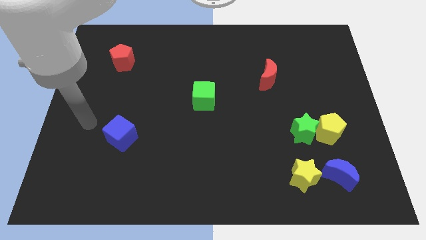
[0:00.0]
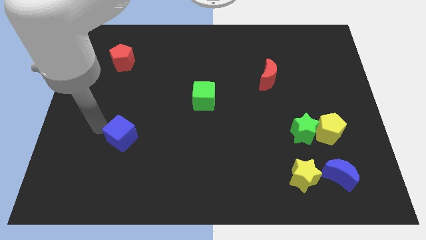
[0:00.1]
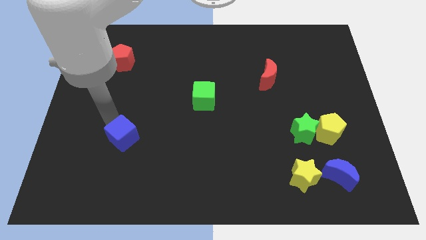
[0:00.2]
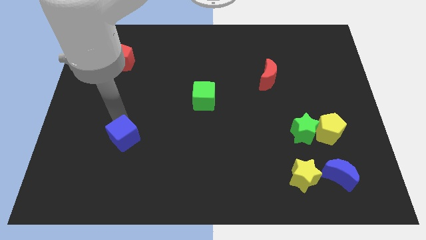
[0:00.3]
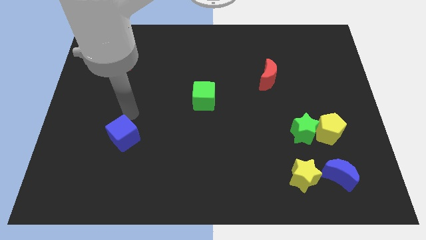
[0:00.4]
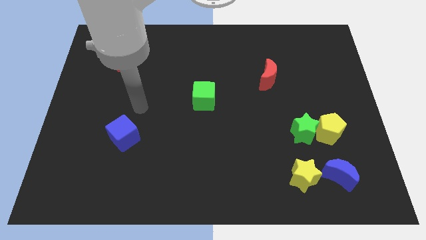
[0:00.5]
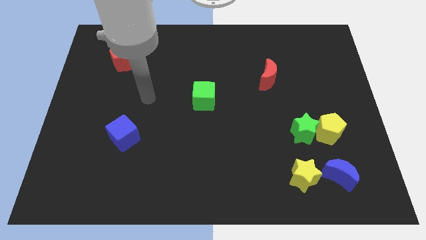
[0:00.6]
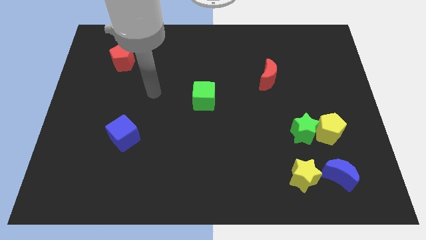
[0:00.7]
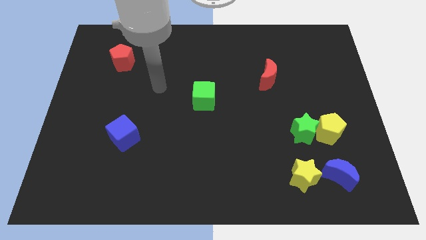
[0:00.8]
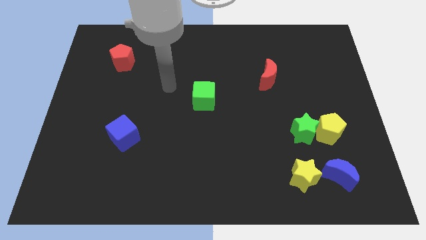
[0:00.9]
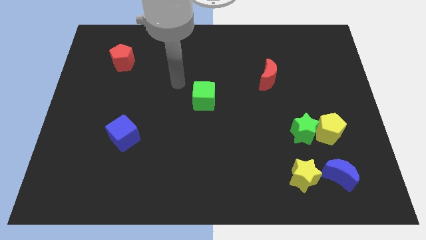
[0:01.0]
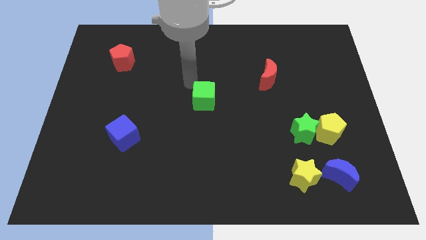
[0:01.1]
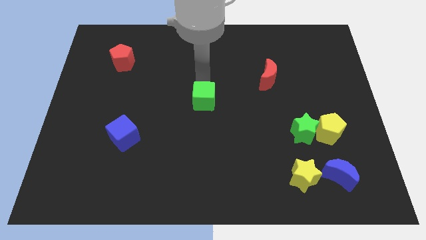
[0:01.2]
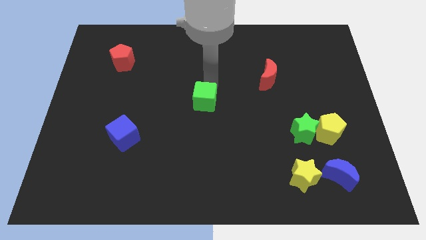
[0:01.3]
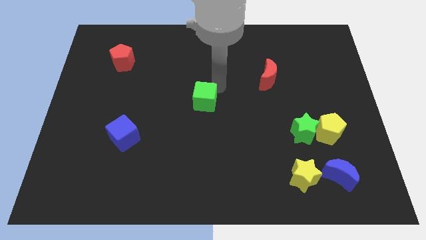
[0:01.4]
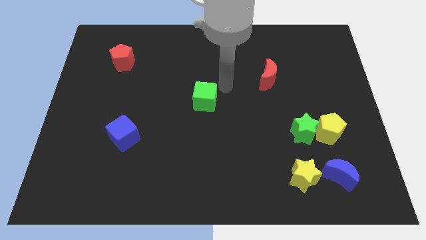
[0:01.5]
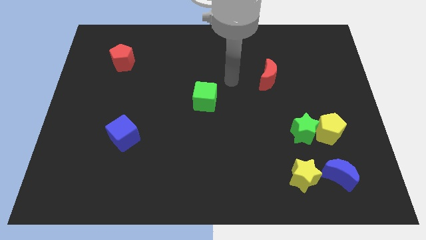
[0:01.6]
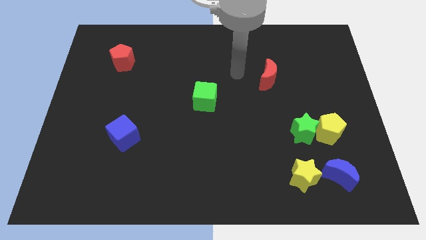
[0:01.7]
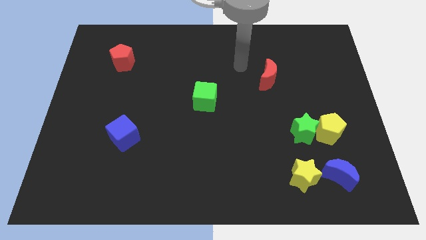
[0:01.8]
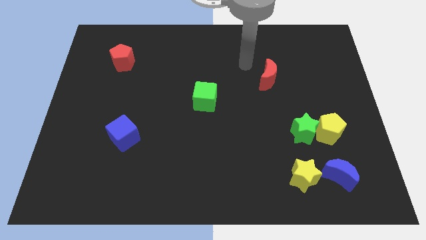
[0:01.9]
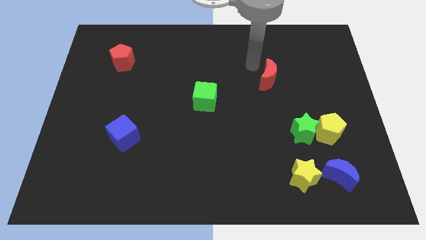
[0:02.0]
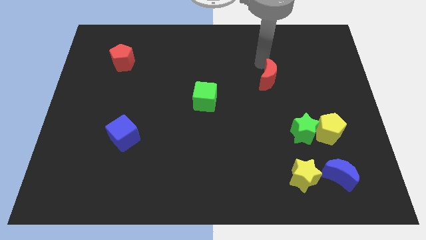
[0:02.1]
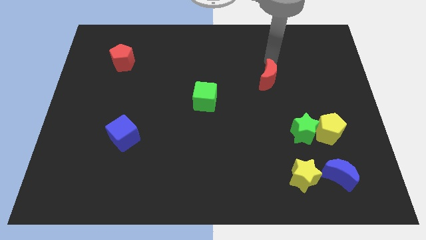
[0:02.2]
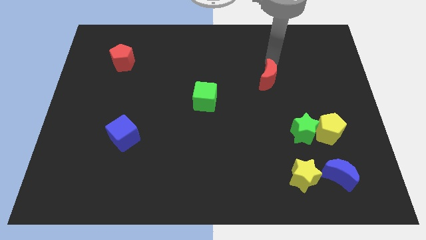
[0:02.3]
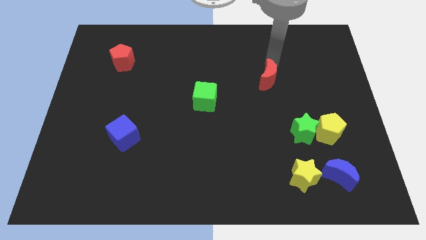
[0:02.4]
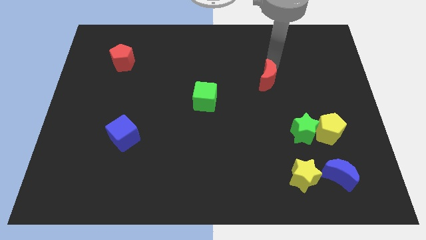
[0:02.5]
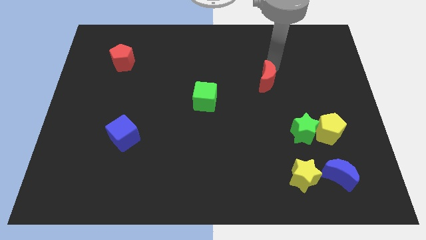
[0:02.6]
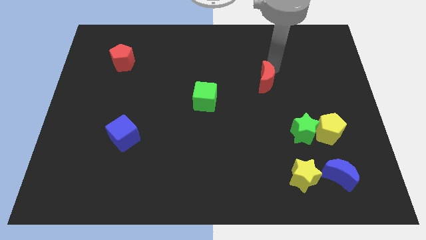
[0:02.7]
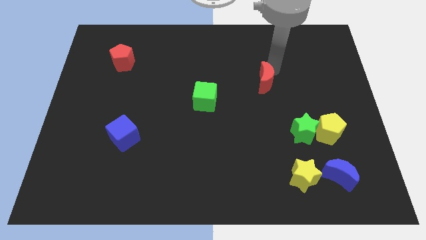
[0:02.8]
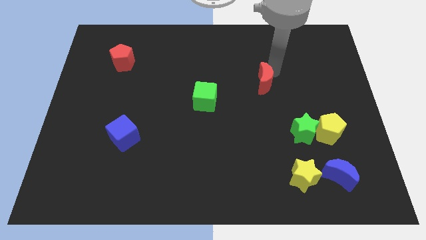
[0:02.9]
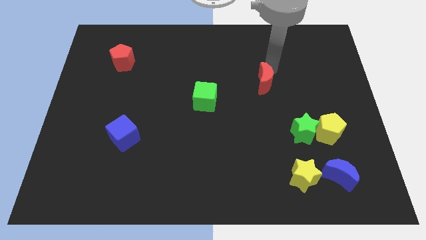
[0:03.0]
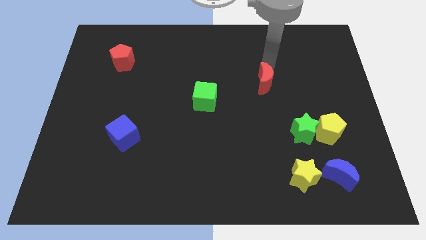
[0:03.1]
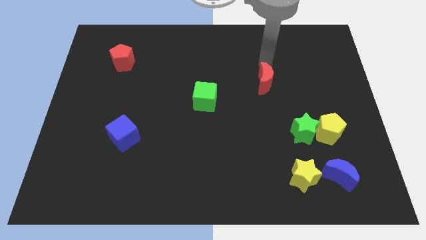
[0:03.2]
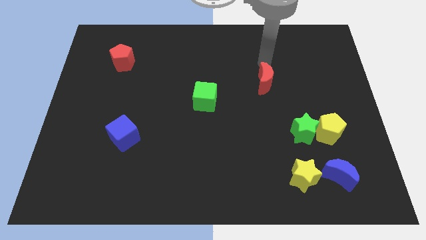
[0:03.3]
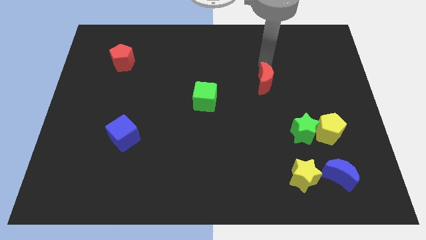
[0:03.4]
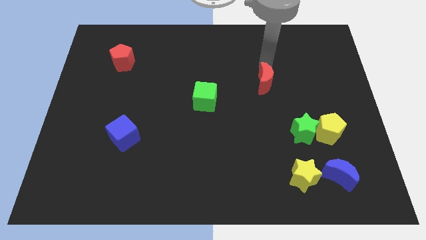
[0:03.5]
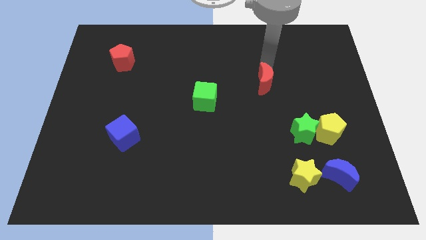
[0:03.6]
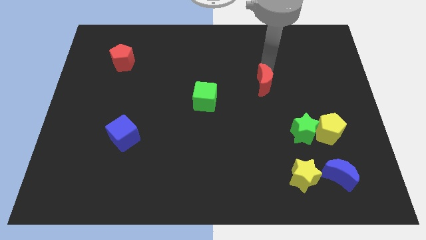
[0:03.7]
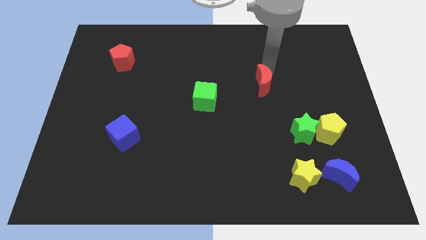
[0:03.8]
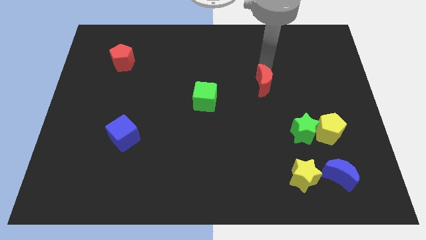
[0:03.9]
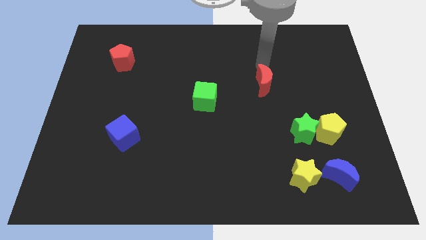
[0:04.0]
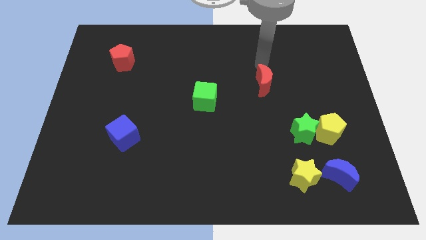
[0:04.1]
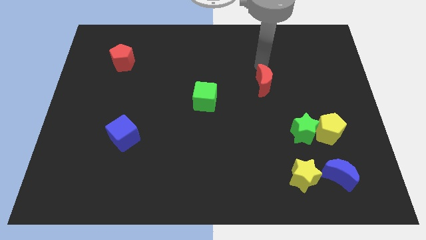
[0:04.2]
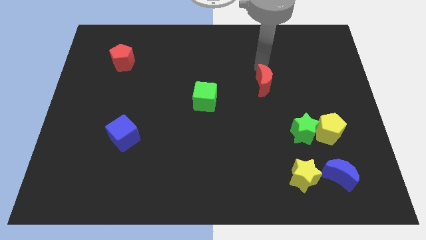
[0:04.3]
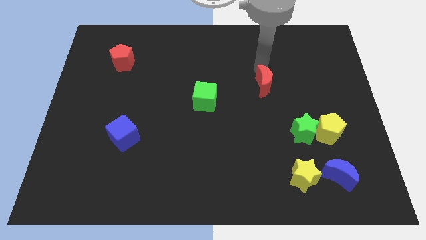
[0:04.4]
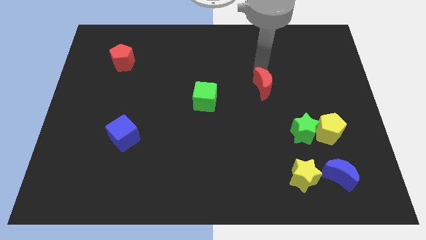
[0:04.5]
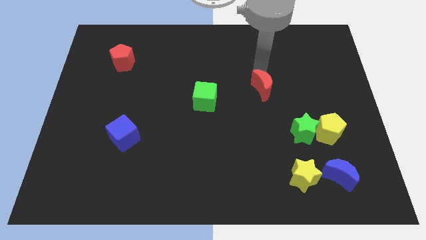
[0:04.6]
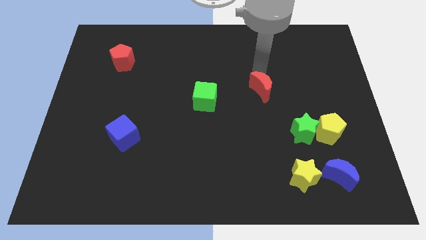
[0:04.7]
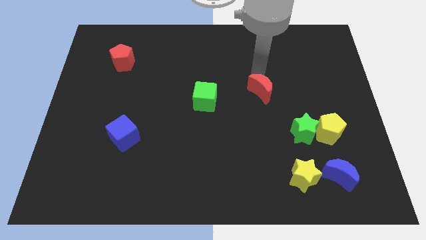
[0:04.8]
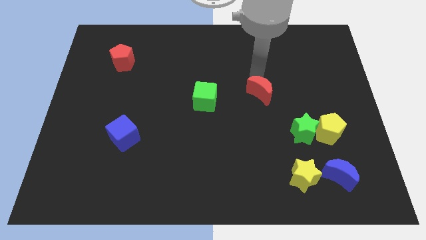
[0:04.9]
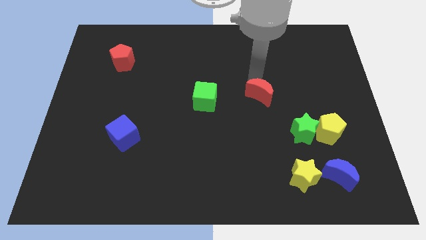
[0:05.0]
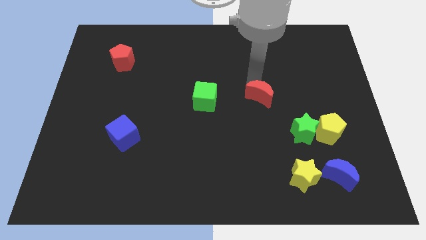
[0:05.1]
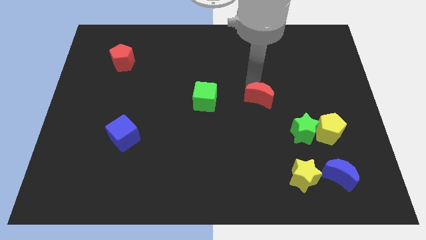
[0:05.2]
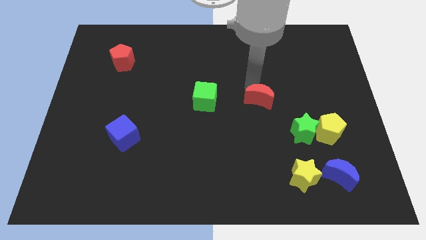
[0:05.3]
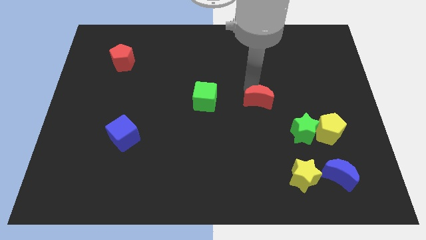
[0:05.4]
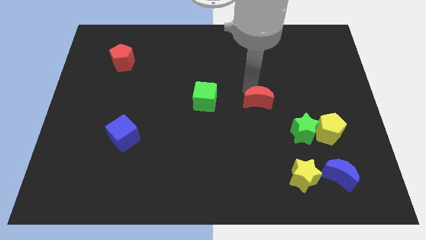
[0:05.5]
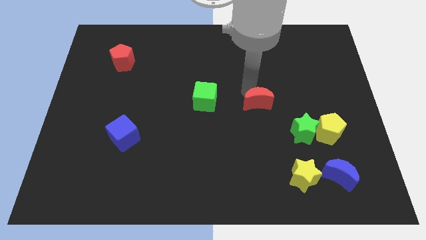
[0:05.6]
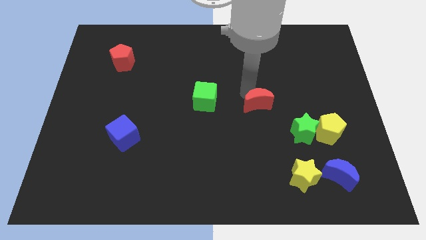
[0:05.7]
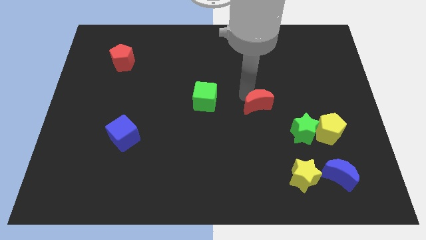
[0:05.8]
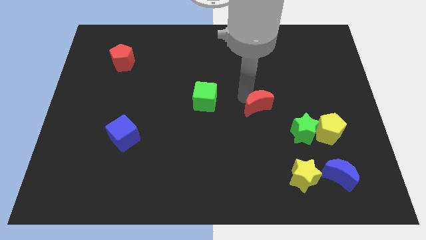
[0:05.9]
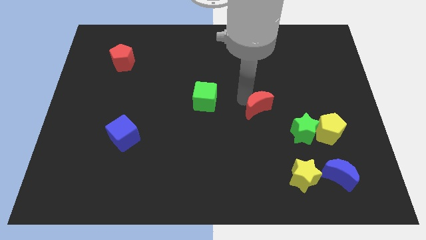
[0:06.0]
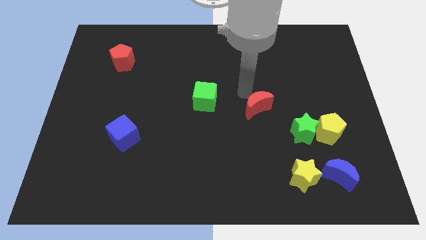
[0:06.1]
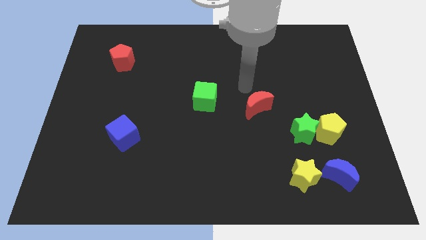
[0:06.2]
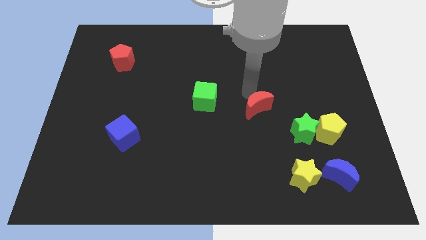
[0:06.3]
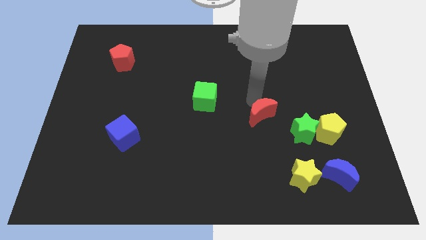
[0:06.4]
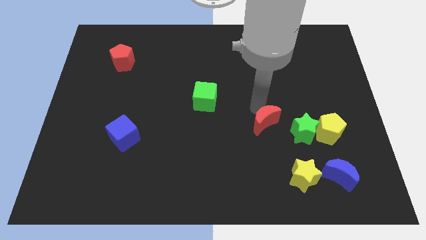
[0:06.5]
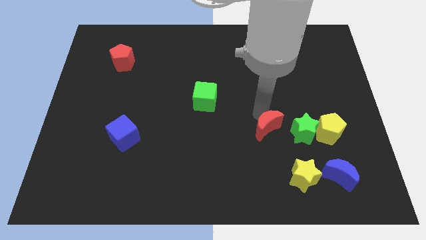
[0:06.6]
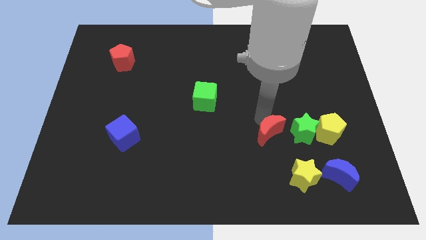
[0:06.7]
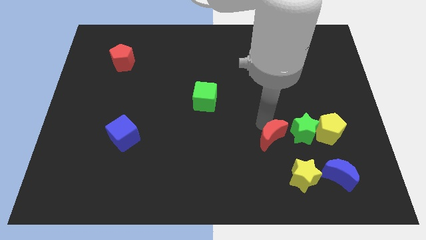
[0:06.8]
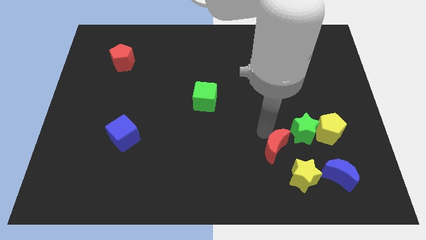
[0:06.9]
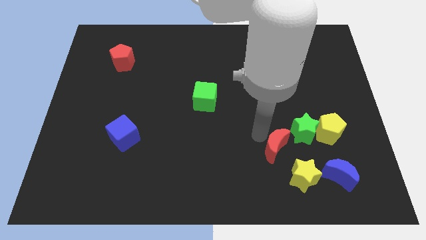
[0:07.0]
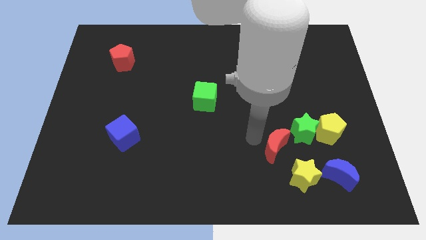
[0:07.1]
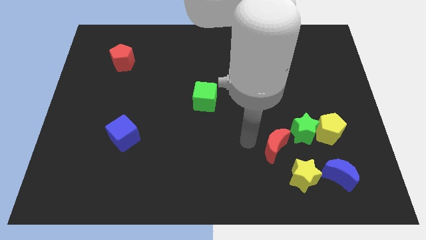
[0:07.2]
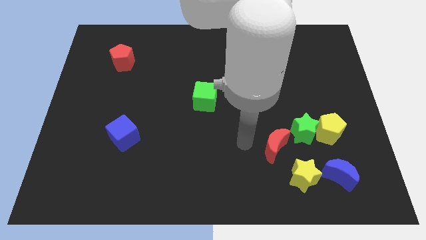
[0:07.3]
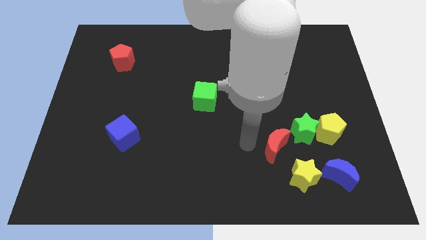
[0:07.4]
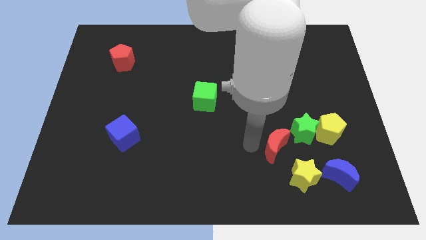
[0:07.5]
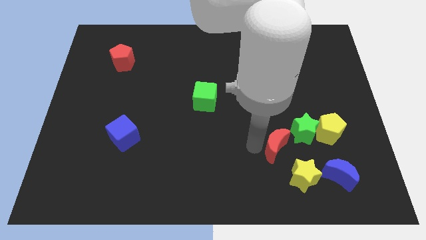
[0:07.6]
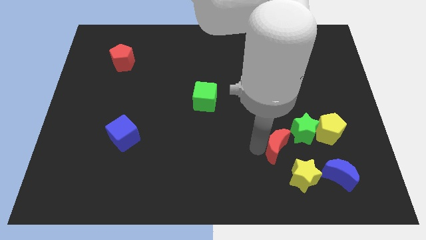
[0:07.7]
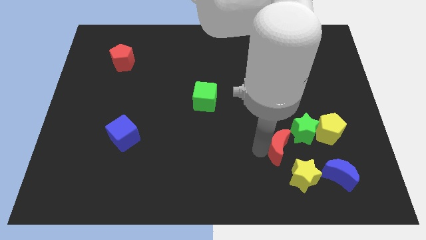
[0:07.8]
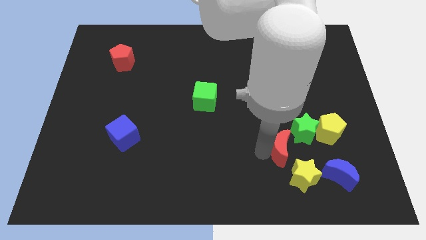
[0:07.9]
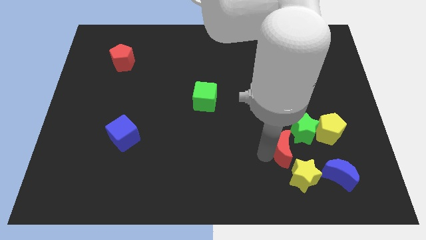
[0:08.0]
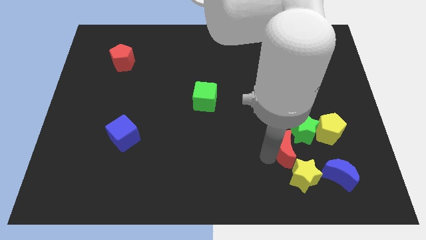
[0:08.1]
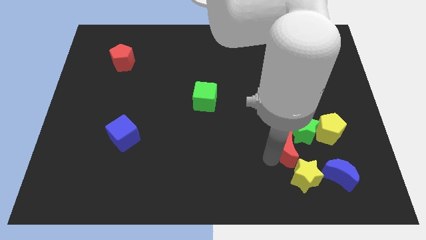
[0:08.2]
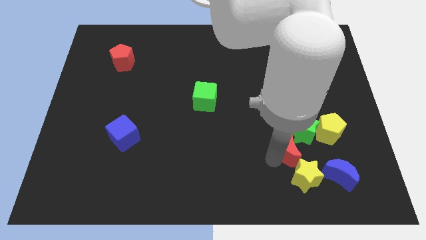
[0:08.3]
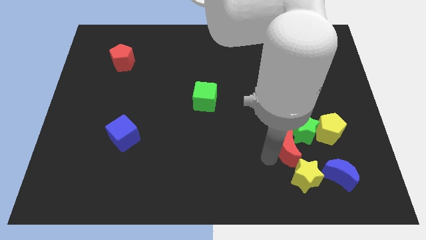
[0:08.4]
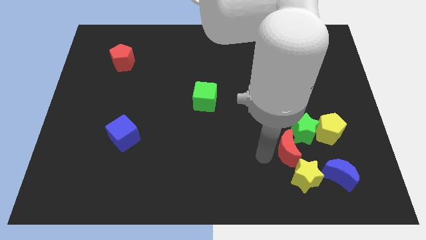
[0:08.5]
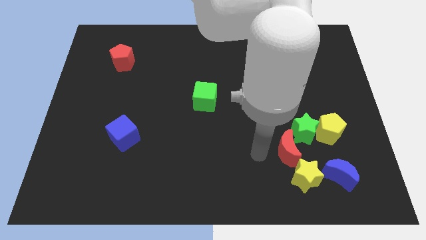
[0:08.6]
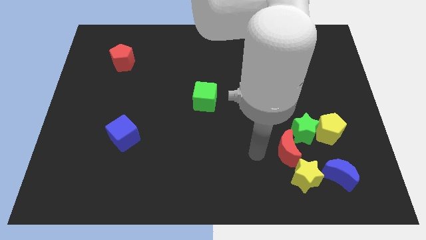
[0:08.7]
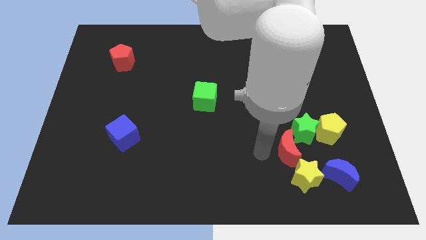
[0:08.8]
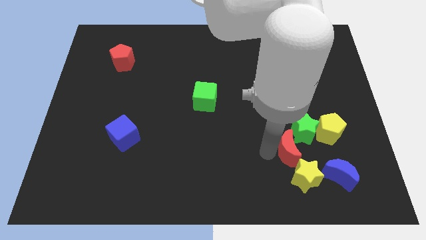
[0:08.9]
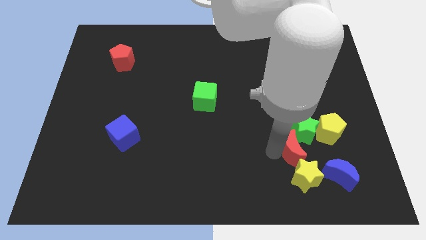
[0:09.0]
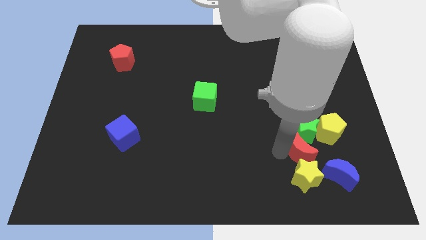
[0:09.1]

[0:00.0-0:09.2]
push the red moon to the top right side of the yellow star
